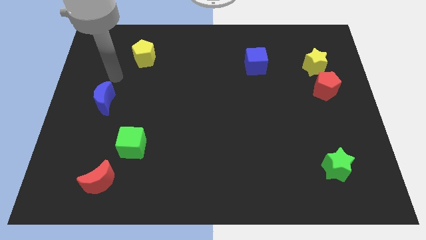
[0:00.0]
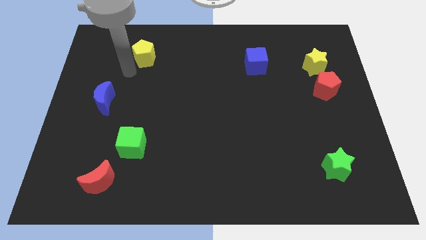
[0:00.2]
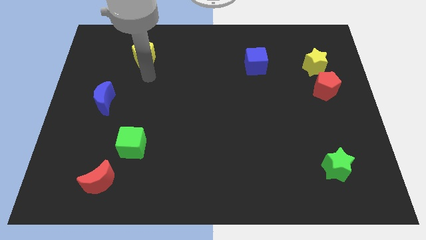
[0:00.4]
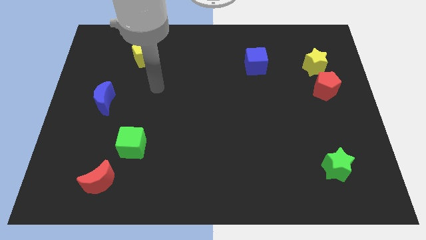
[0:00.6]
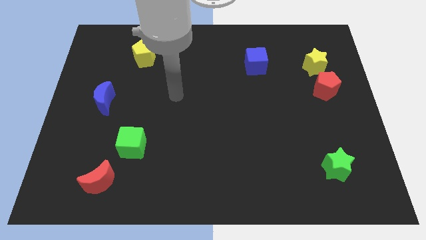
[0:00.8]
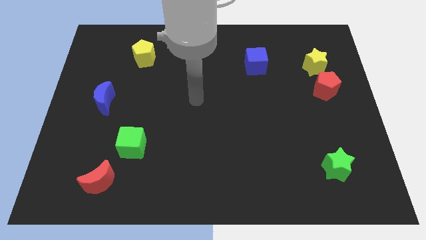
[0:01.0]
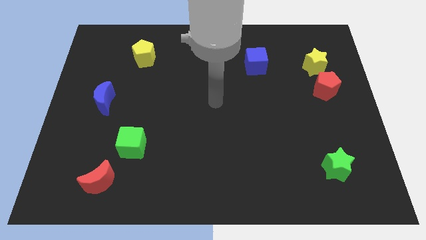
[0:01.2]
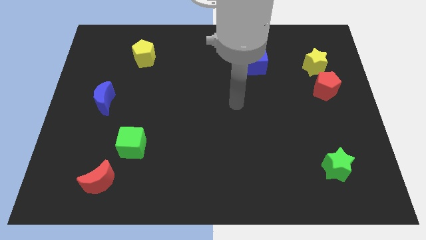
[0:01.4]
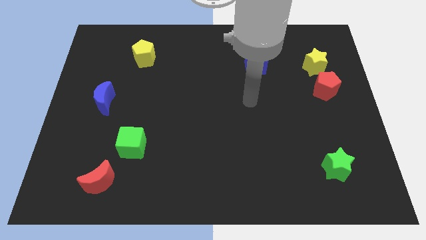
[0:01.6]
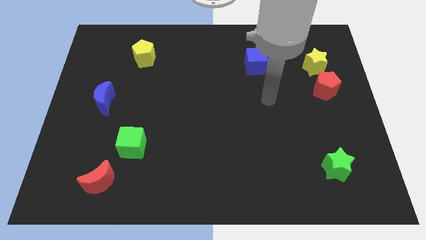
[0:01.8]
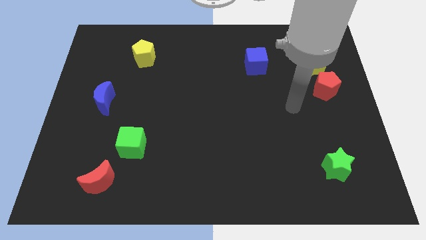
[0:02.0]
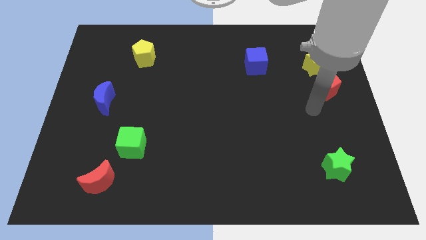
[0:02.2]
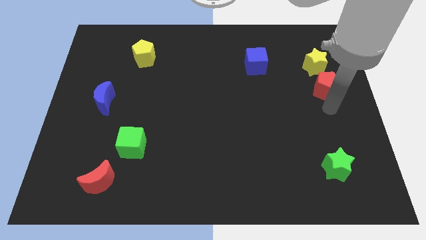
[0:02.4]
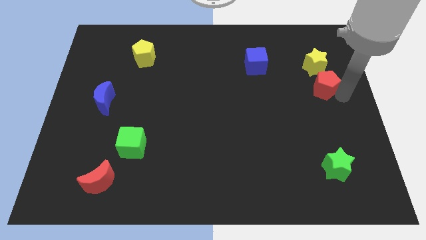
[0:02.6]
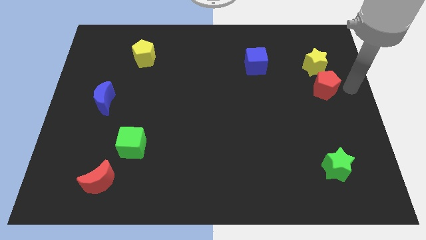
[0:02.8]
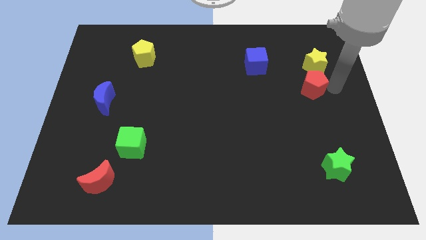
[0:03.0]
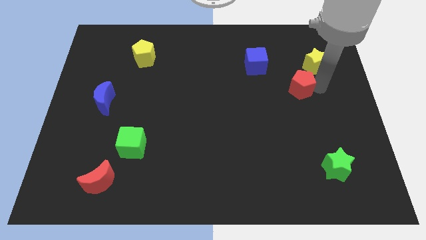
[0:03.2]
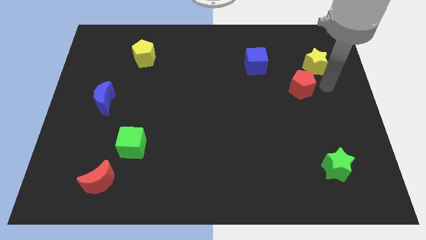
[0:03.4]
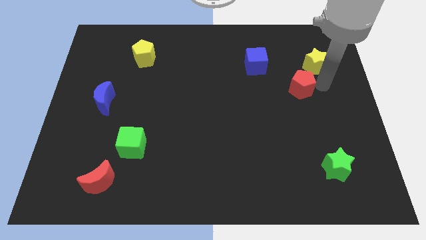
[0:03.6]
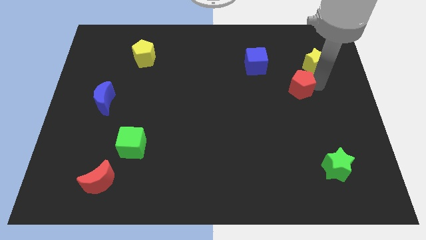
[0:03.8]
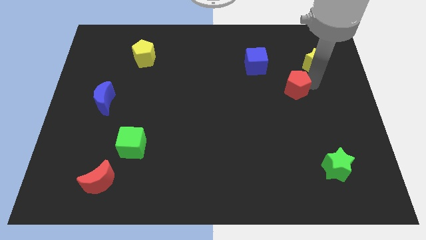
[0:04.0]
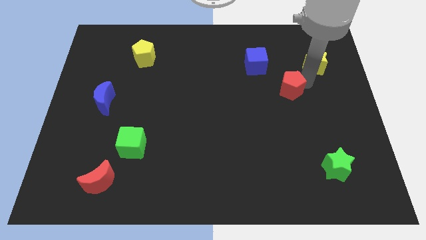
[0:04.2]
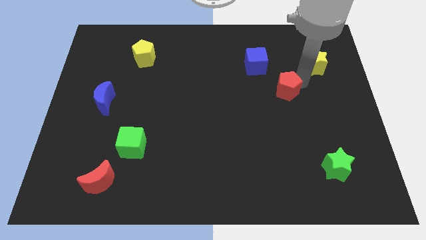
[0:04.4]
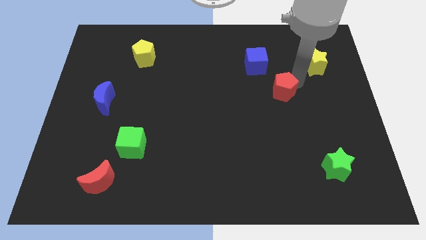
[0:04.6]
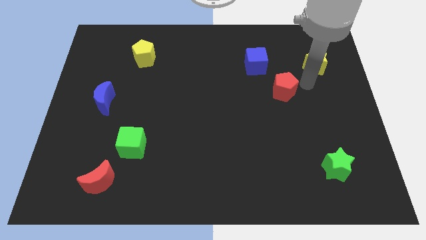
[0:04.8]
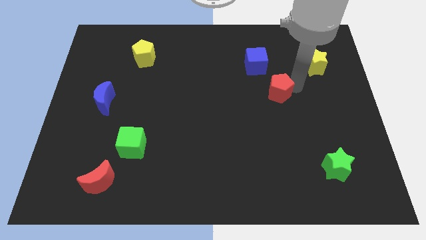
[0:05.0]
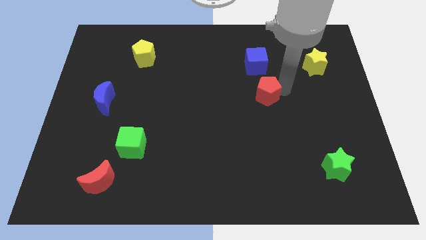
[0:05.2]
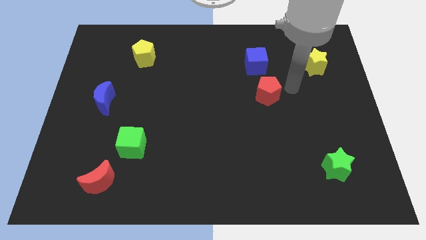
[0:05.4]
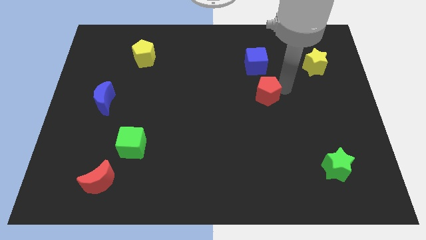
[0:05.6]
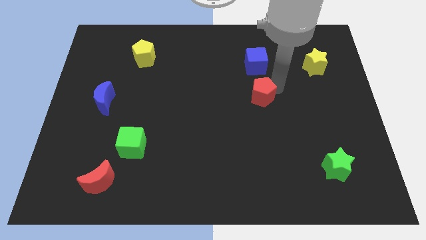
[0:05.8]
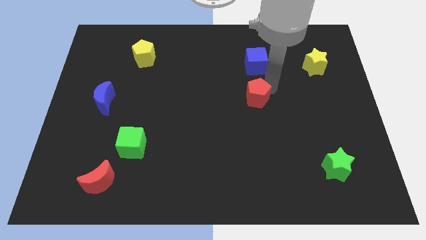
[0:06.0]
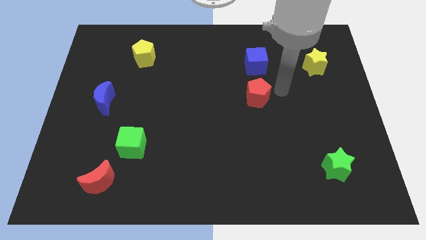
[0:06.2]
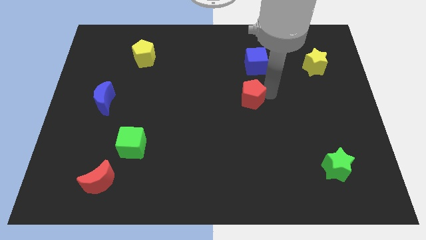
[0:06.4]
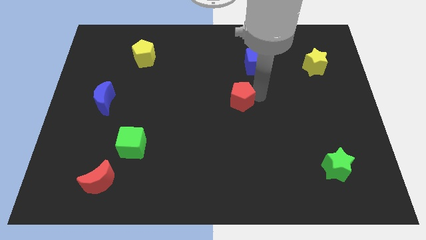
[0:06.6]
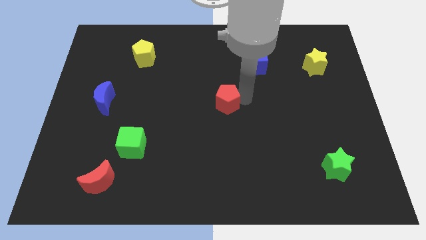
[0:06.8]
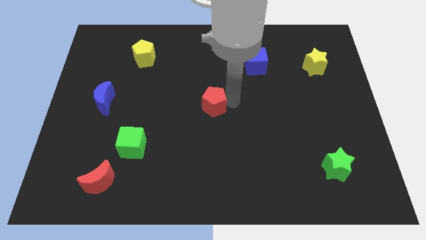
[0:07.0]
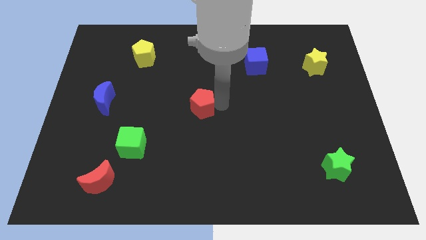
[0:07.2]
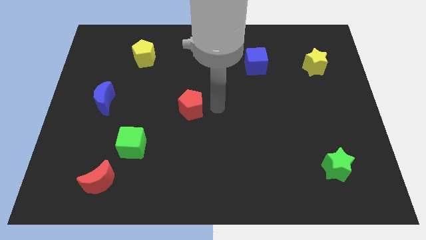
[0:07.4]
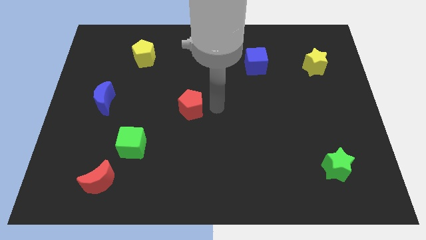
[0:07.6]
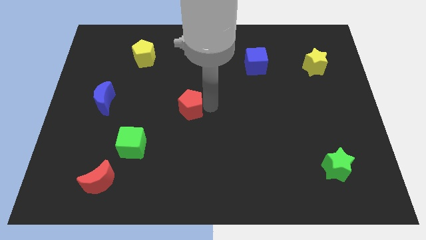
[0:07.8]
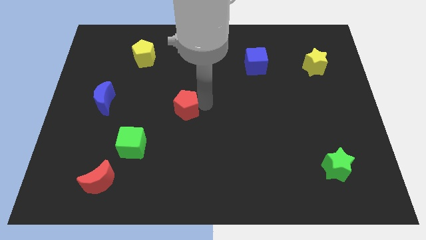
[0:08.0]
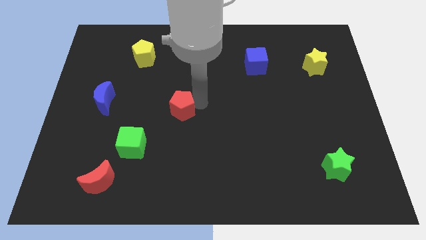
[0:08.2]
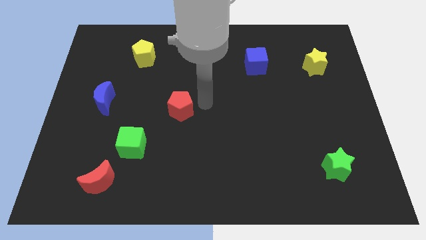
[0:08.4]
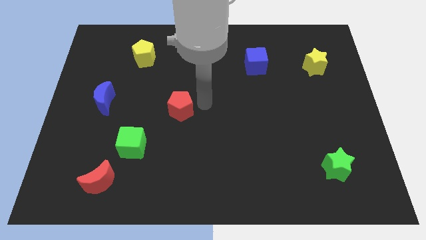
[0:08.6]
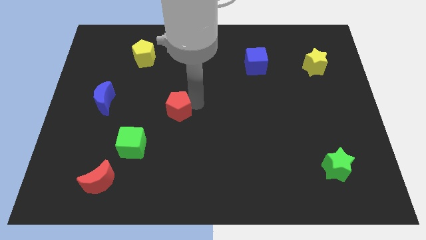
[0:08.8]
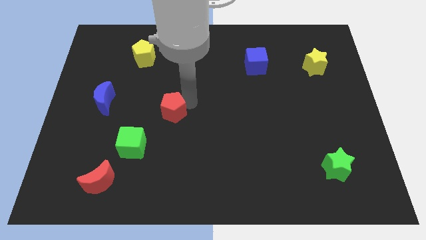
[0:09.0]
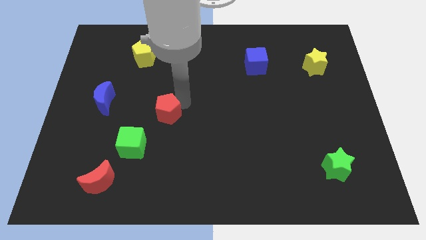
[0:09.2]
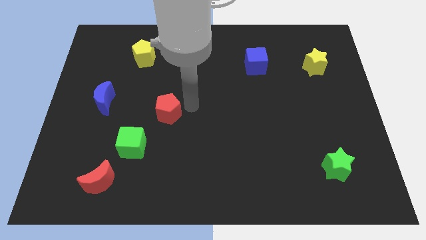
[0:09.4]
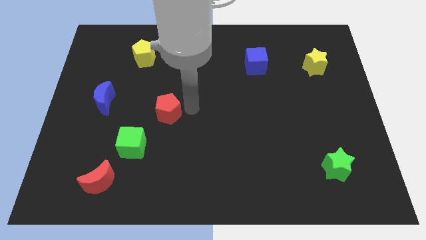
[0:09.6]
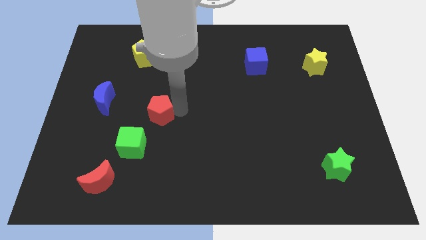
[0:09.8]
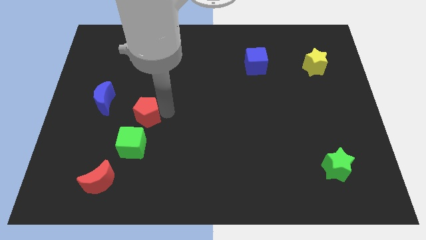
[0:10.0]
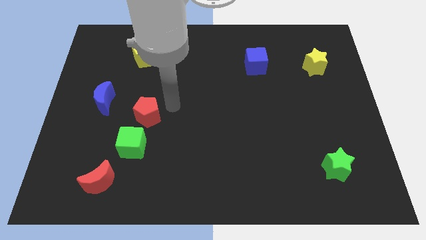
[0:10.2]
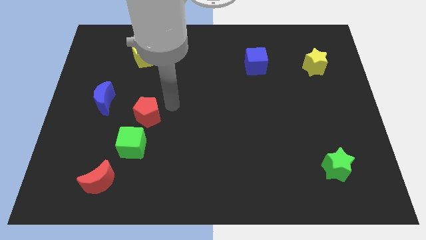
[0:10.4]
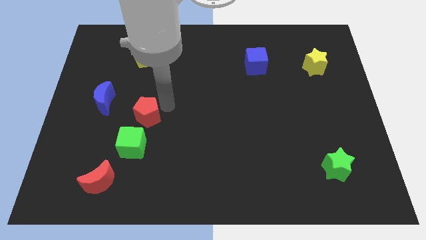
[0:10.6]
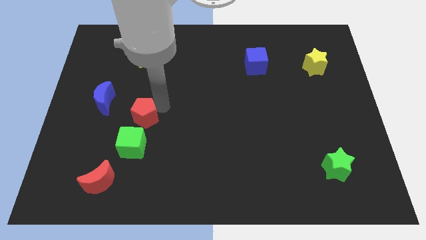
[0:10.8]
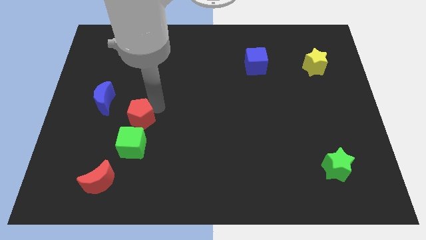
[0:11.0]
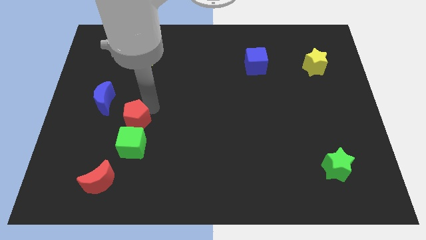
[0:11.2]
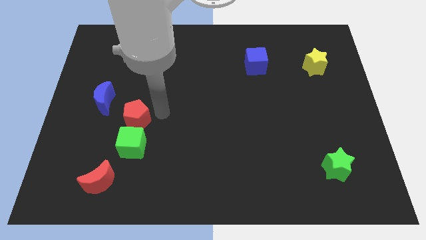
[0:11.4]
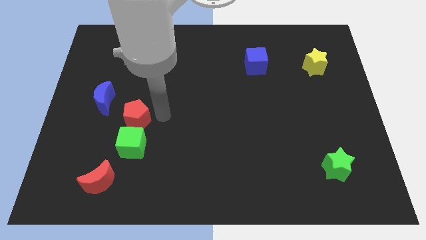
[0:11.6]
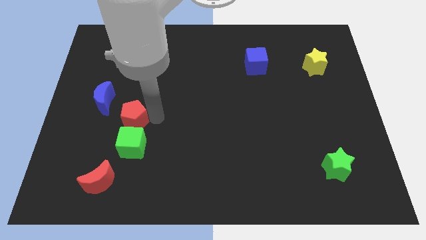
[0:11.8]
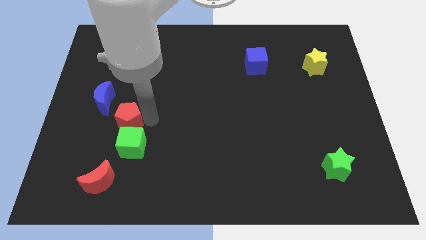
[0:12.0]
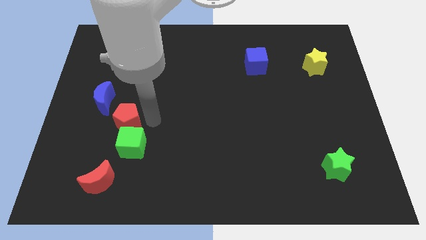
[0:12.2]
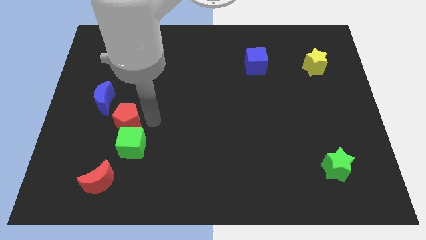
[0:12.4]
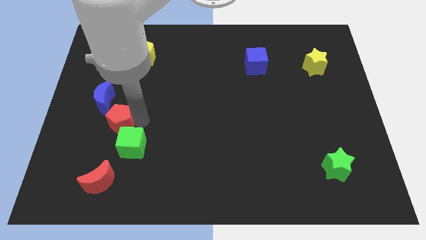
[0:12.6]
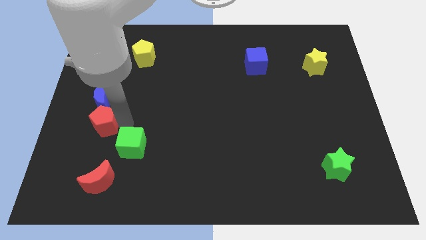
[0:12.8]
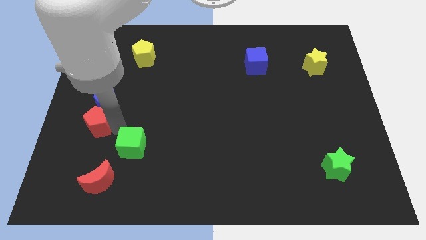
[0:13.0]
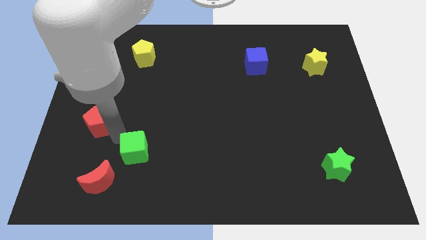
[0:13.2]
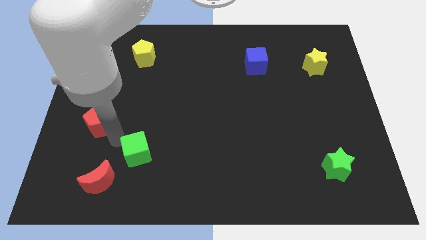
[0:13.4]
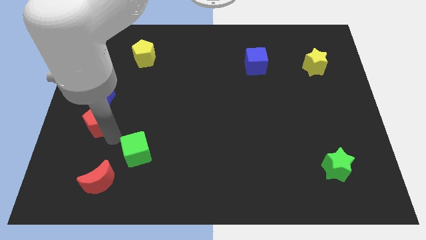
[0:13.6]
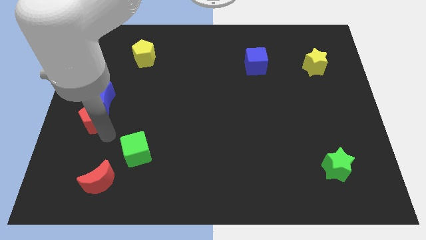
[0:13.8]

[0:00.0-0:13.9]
put the red pentagon to the left side of the board

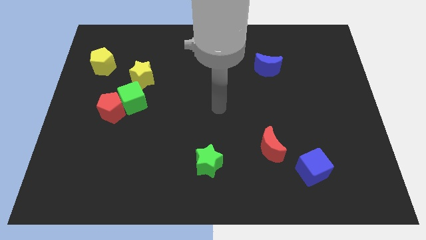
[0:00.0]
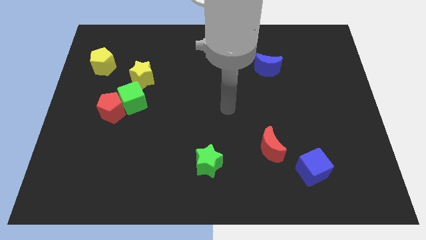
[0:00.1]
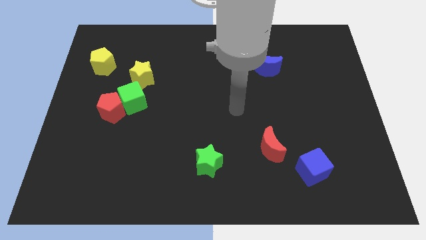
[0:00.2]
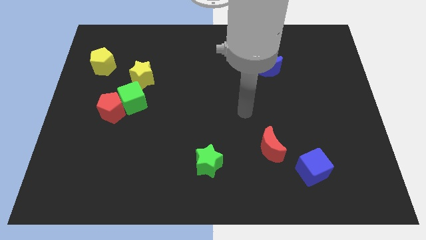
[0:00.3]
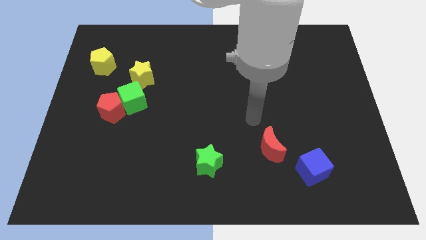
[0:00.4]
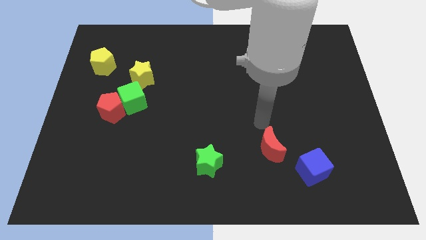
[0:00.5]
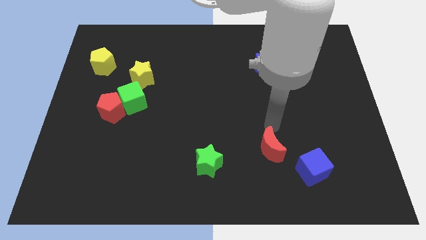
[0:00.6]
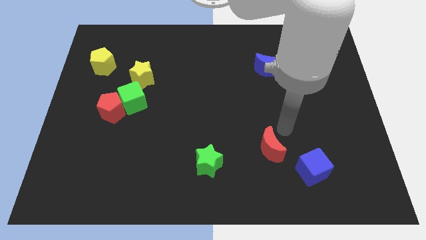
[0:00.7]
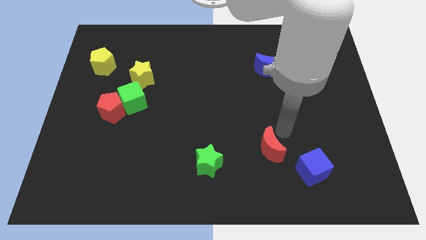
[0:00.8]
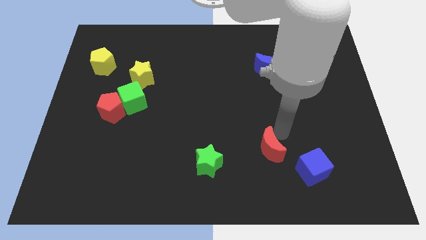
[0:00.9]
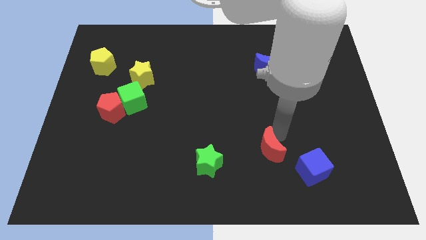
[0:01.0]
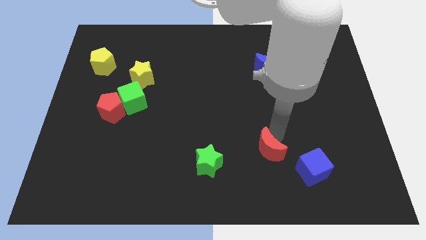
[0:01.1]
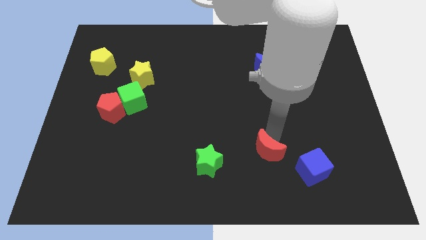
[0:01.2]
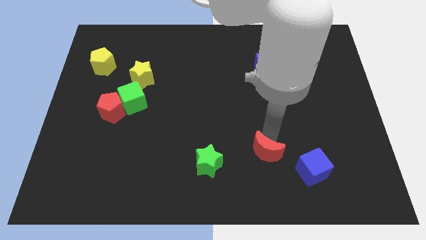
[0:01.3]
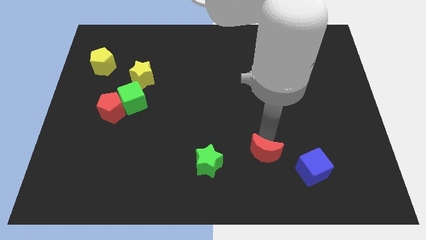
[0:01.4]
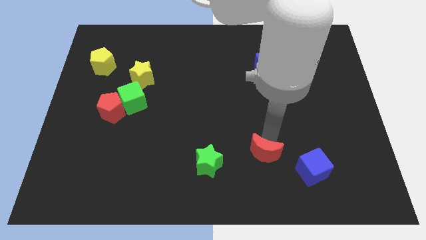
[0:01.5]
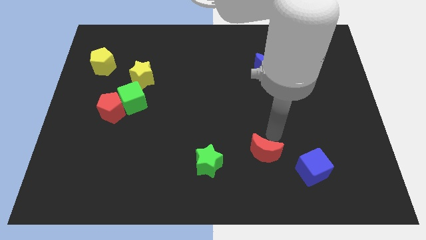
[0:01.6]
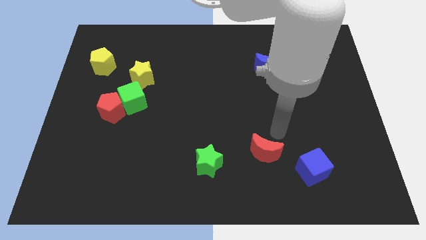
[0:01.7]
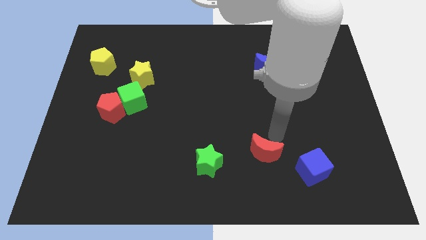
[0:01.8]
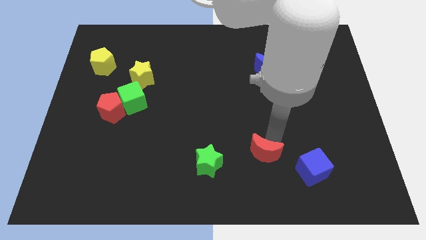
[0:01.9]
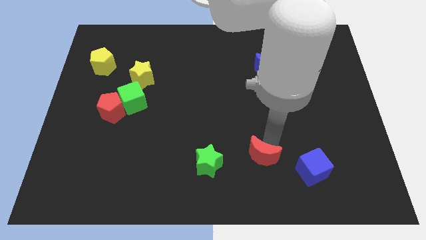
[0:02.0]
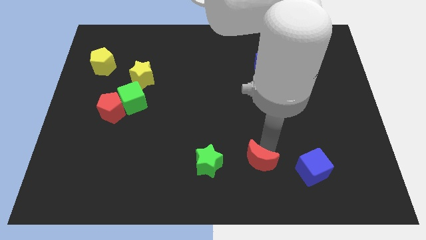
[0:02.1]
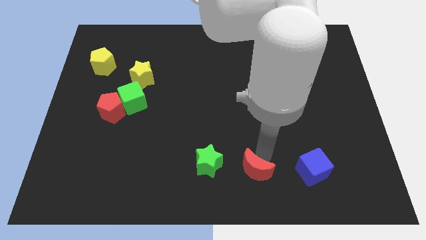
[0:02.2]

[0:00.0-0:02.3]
put the red moon to the bottom
